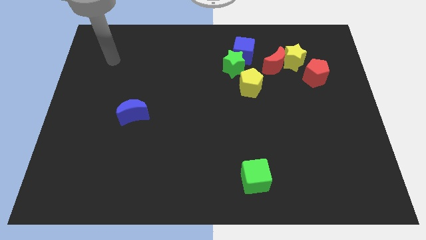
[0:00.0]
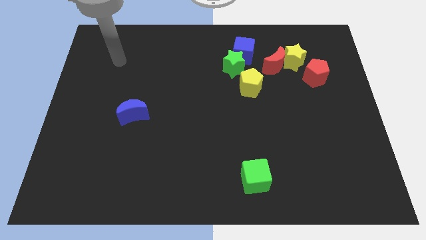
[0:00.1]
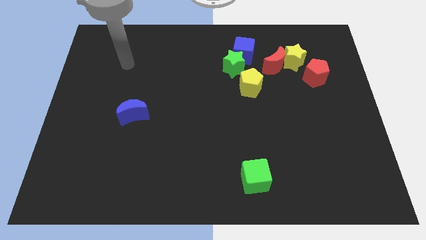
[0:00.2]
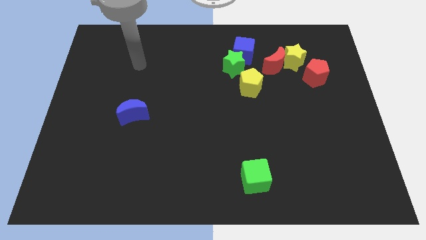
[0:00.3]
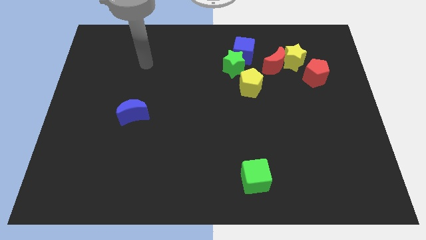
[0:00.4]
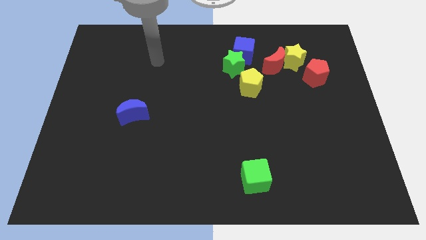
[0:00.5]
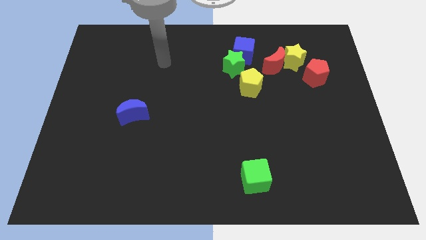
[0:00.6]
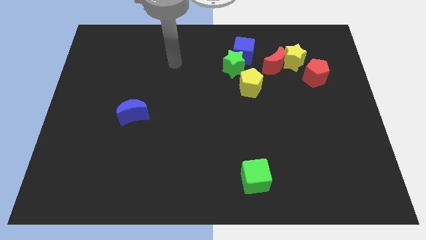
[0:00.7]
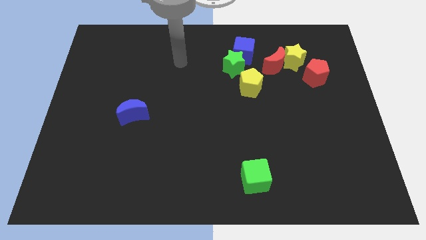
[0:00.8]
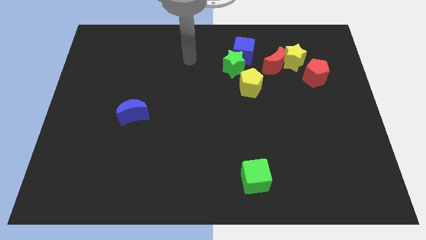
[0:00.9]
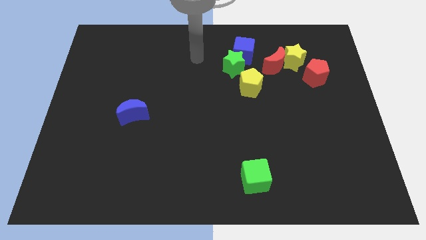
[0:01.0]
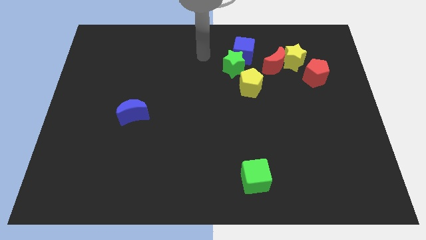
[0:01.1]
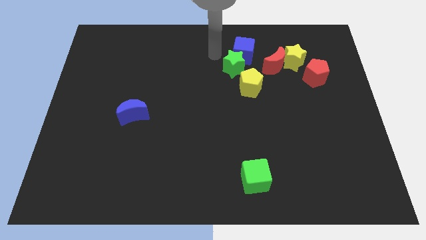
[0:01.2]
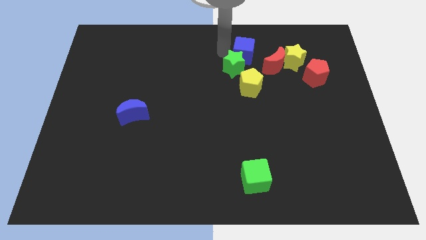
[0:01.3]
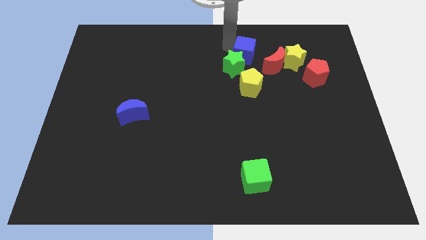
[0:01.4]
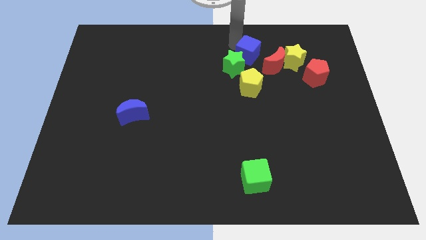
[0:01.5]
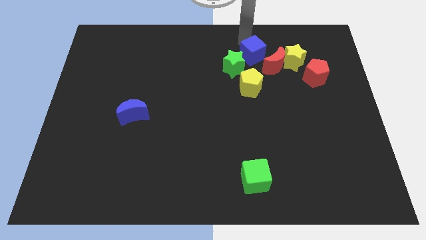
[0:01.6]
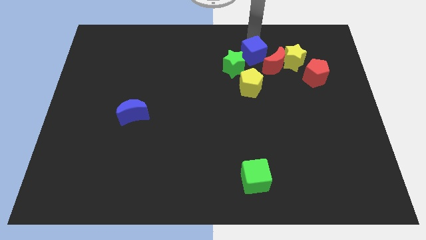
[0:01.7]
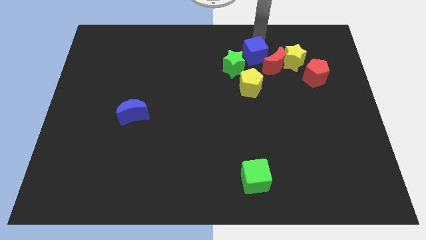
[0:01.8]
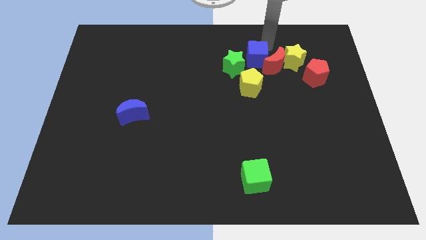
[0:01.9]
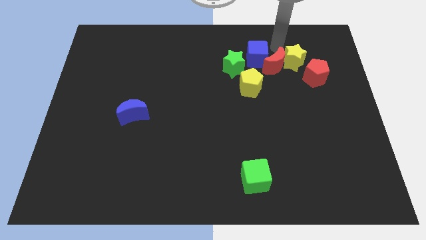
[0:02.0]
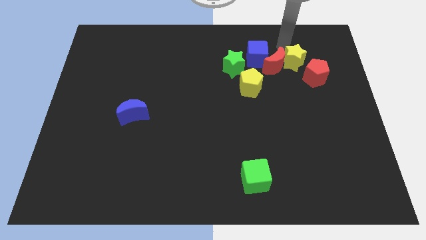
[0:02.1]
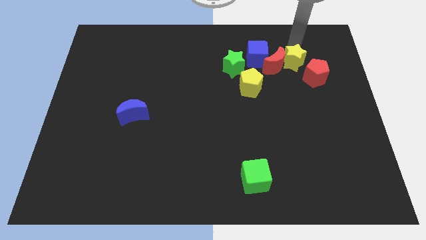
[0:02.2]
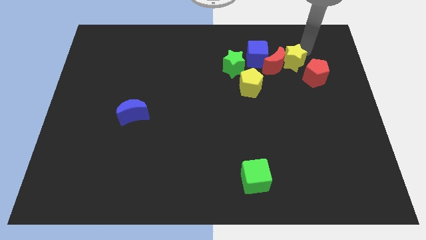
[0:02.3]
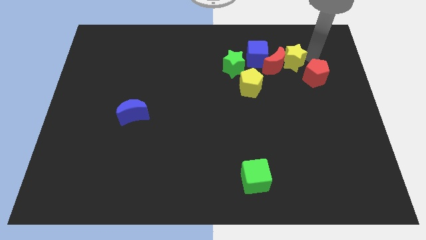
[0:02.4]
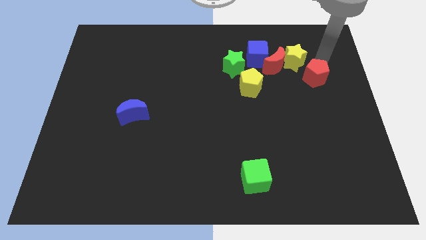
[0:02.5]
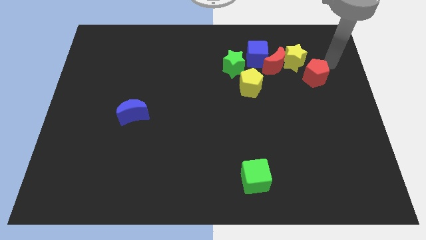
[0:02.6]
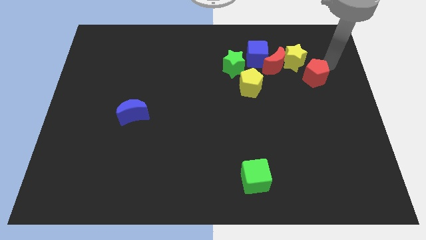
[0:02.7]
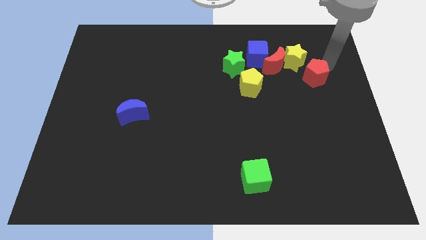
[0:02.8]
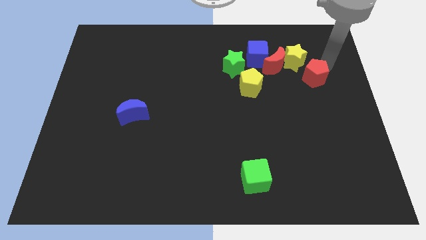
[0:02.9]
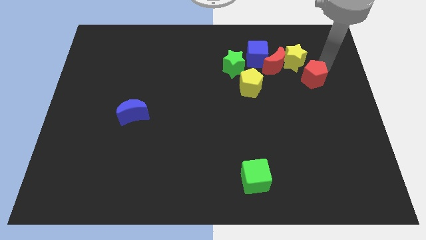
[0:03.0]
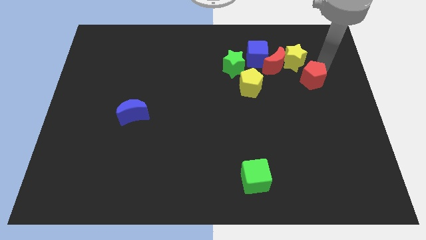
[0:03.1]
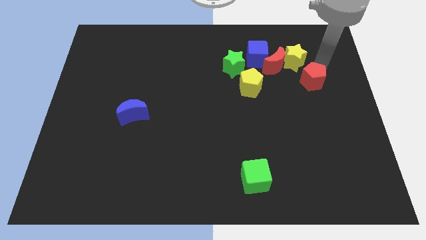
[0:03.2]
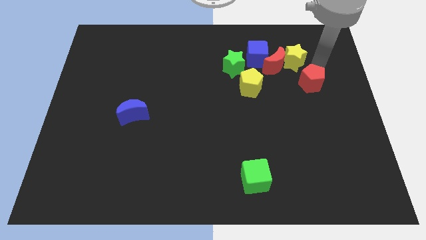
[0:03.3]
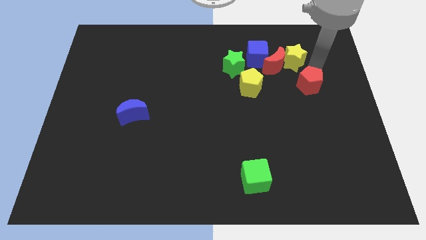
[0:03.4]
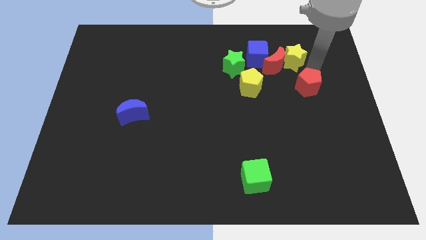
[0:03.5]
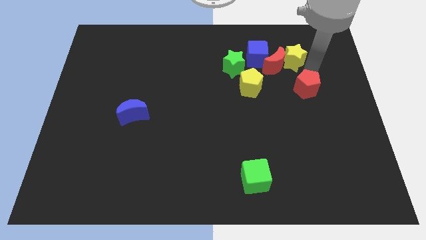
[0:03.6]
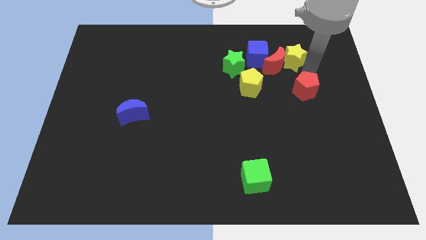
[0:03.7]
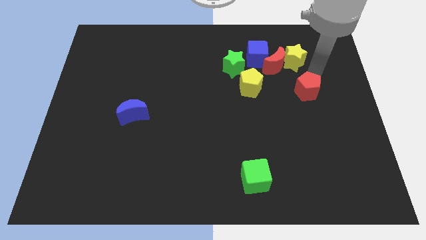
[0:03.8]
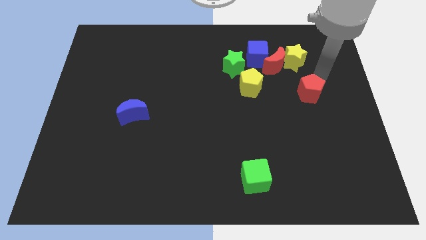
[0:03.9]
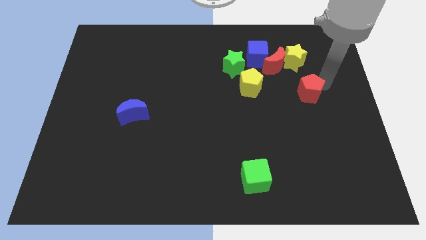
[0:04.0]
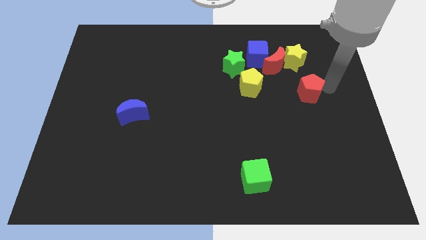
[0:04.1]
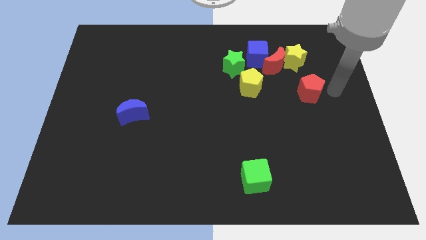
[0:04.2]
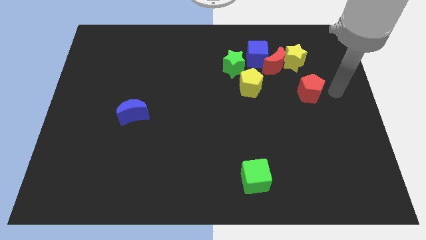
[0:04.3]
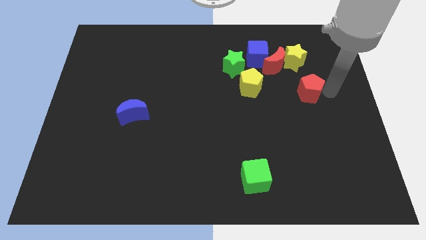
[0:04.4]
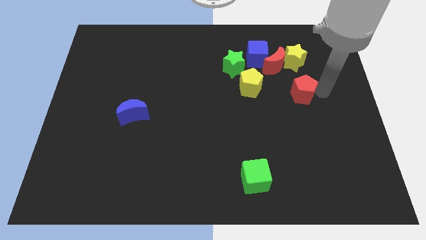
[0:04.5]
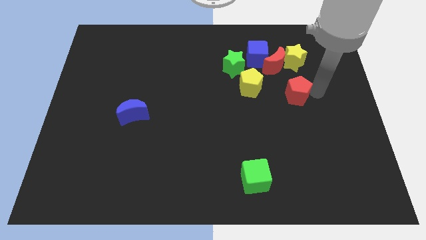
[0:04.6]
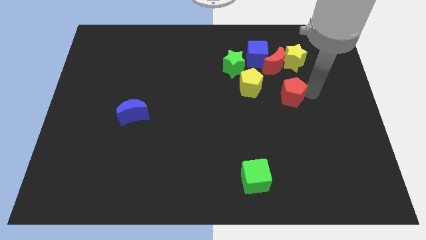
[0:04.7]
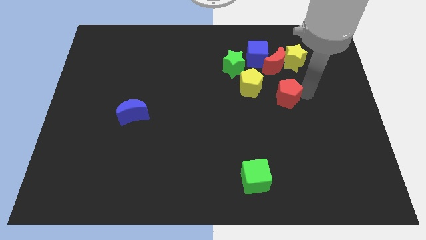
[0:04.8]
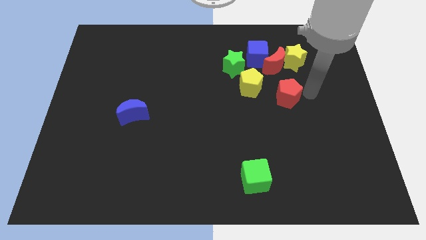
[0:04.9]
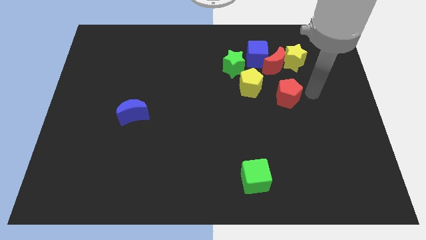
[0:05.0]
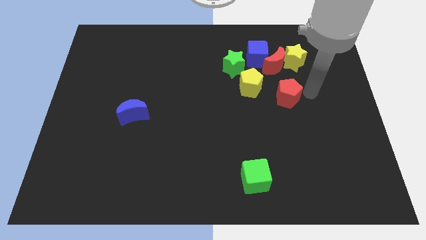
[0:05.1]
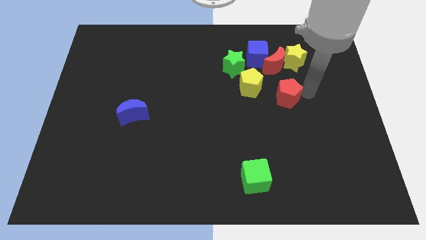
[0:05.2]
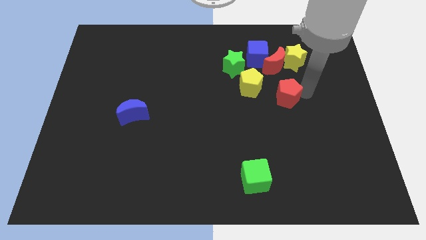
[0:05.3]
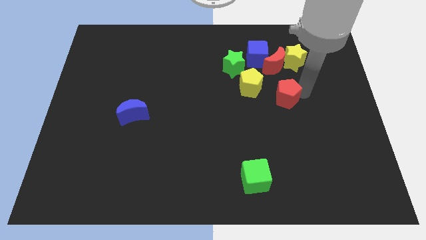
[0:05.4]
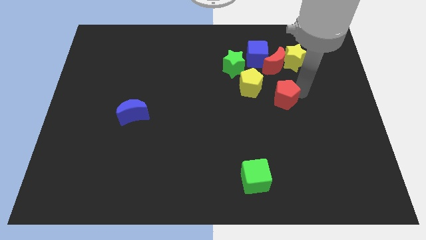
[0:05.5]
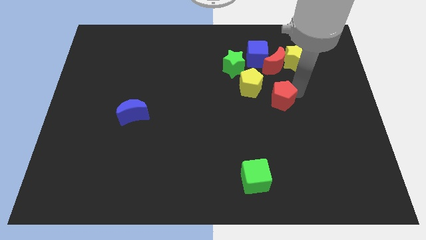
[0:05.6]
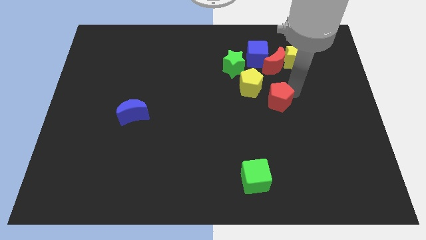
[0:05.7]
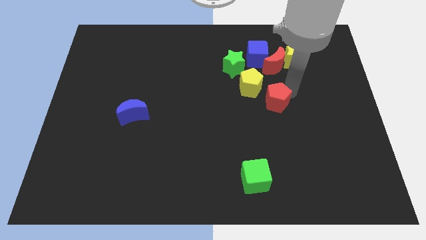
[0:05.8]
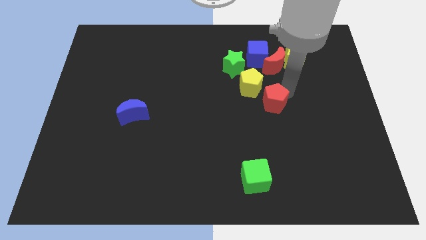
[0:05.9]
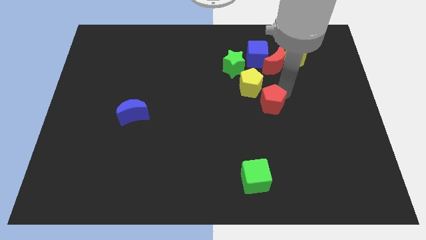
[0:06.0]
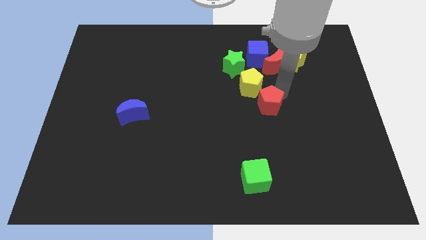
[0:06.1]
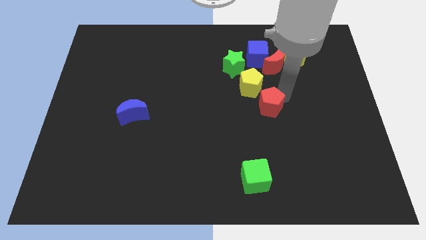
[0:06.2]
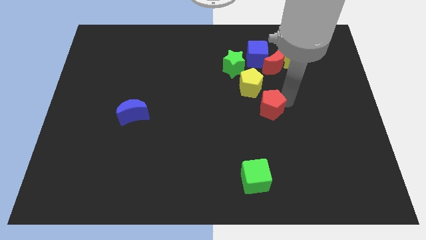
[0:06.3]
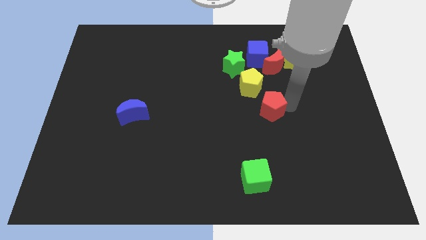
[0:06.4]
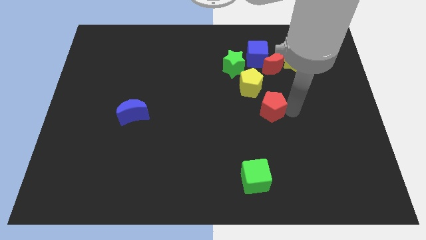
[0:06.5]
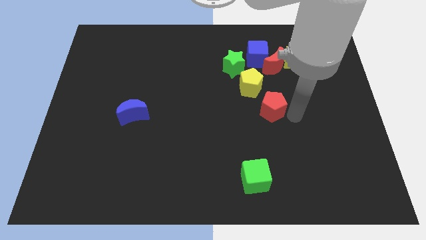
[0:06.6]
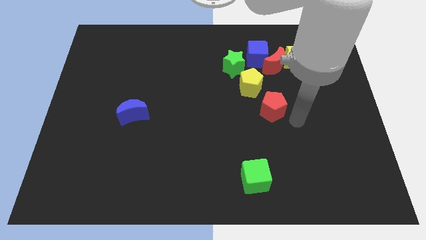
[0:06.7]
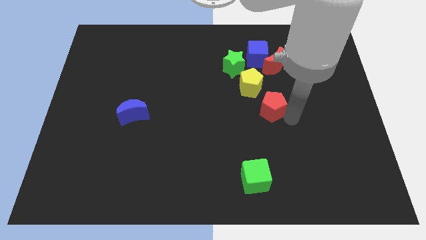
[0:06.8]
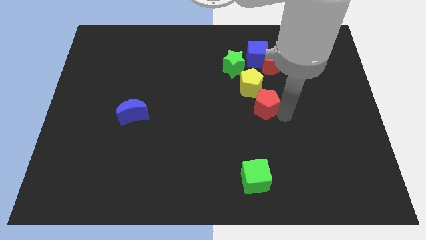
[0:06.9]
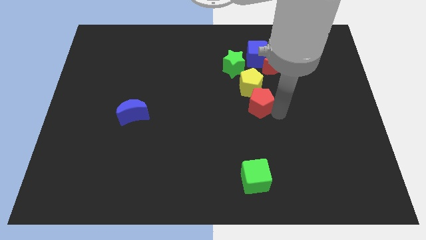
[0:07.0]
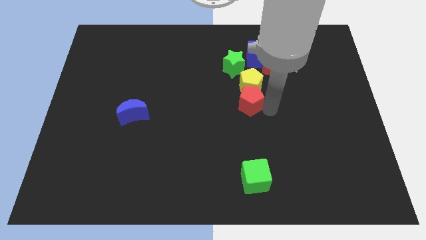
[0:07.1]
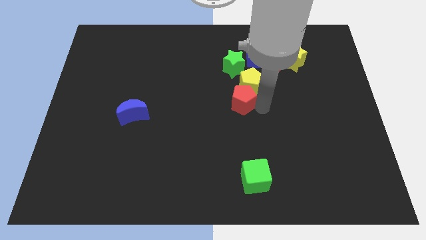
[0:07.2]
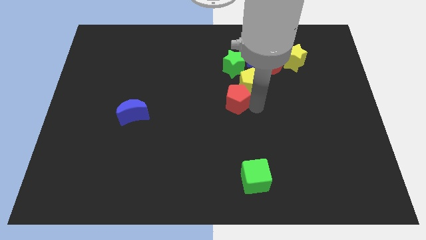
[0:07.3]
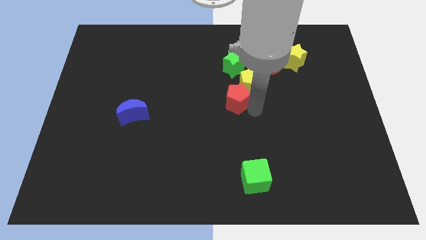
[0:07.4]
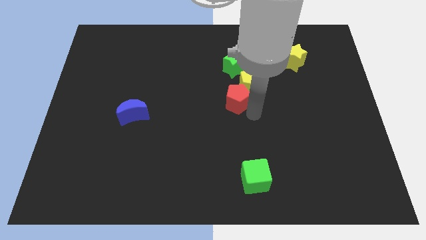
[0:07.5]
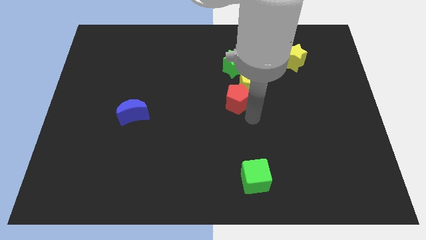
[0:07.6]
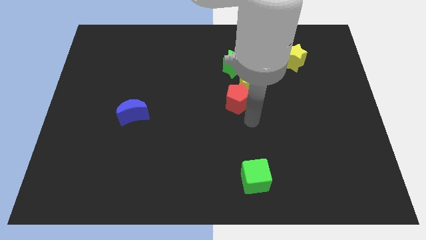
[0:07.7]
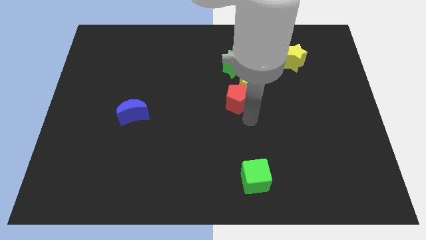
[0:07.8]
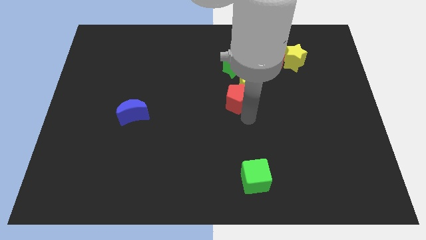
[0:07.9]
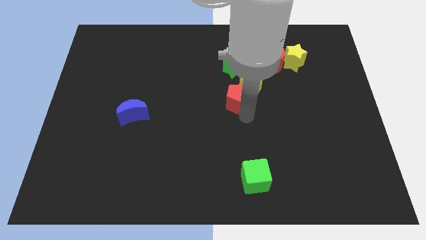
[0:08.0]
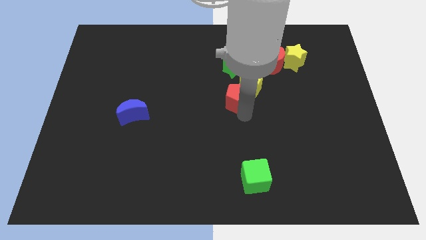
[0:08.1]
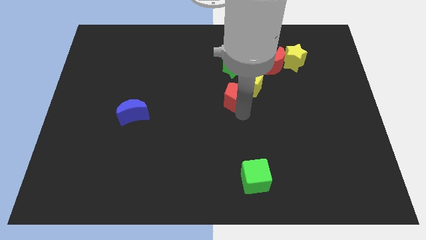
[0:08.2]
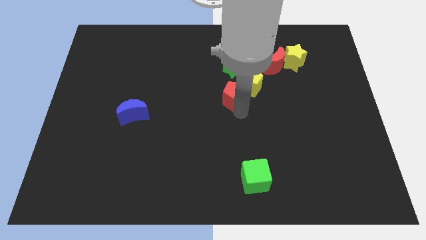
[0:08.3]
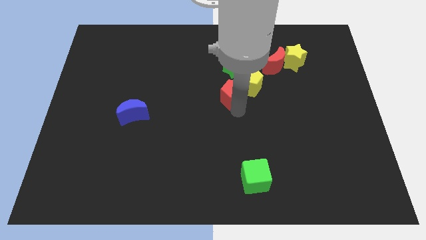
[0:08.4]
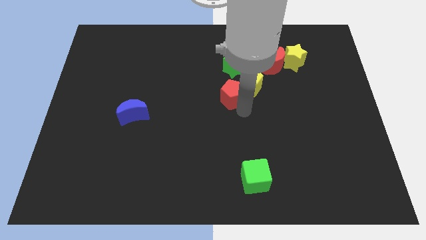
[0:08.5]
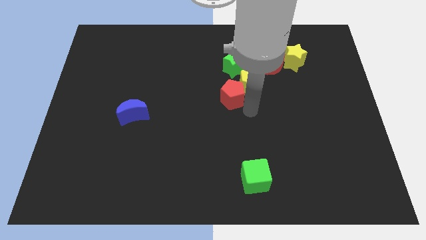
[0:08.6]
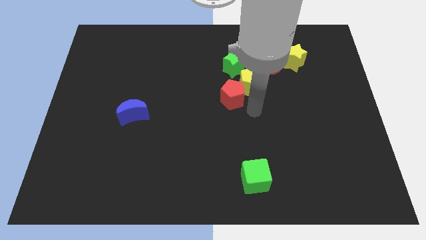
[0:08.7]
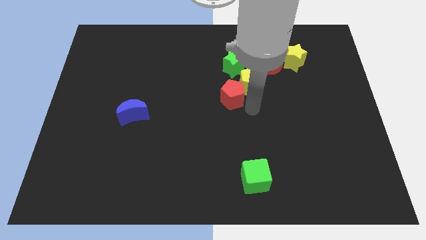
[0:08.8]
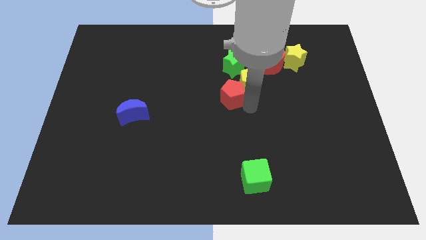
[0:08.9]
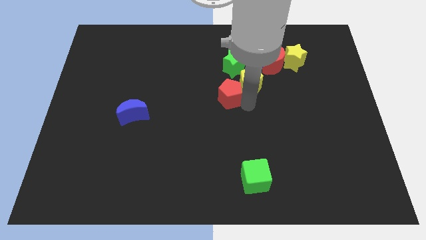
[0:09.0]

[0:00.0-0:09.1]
push the red pentagon to the left
